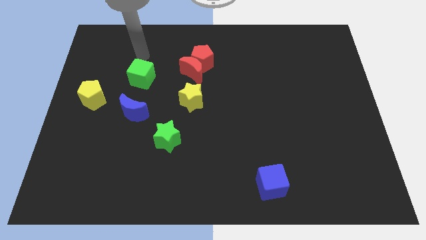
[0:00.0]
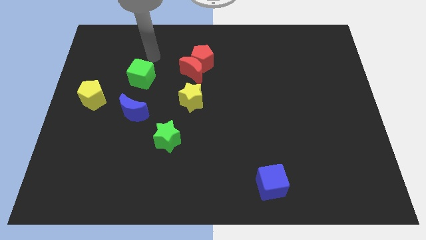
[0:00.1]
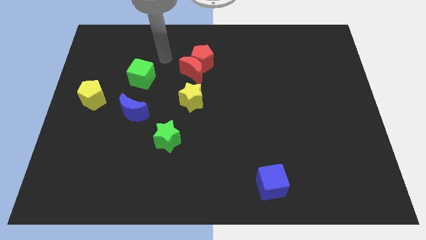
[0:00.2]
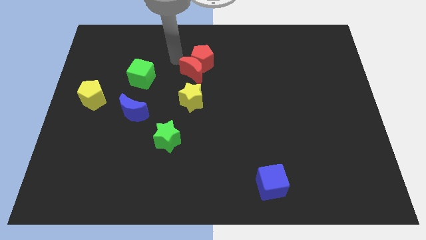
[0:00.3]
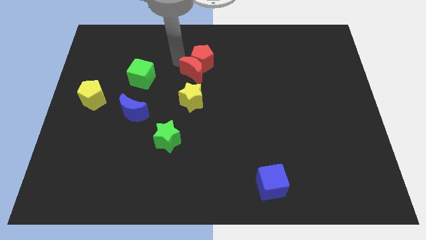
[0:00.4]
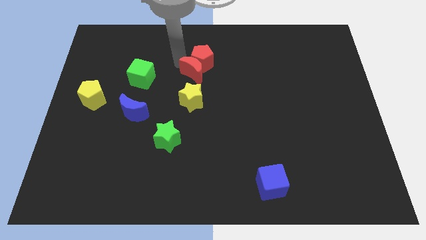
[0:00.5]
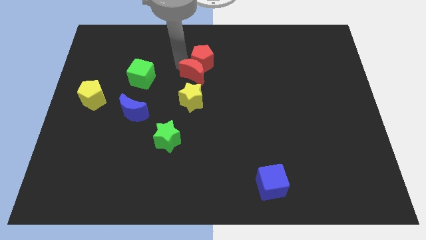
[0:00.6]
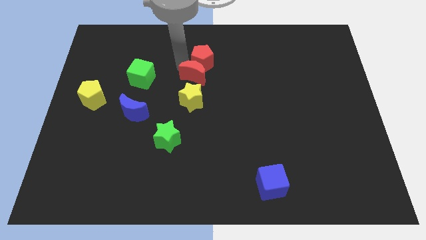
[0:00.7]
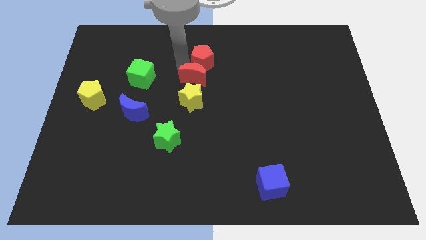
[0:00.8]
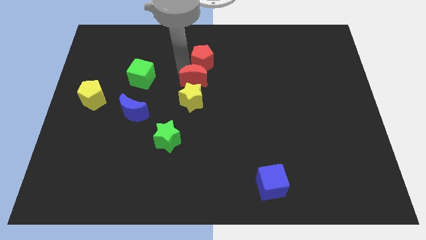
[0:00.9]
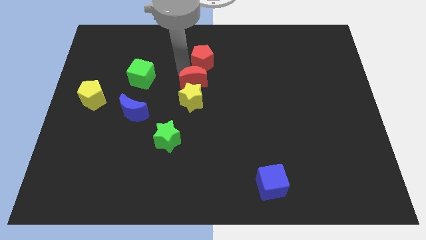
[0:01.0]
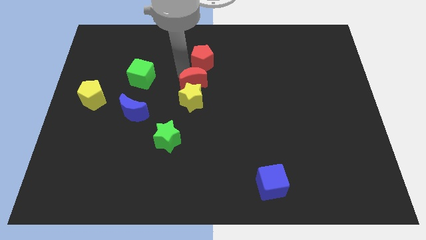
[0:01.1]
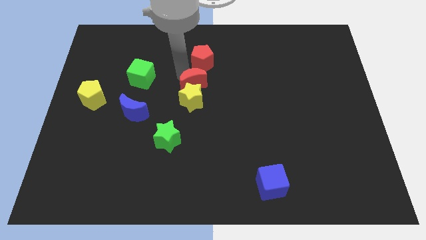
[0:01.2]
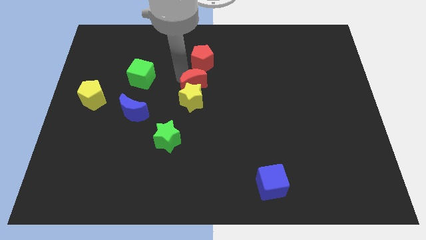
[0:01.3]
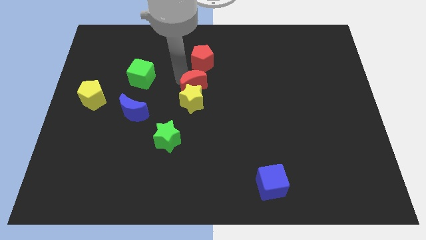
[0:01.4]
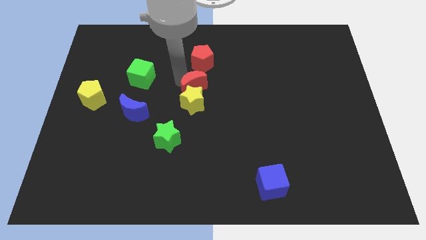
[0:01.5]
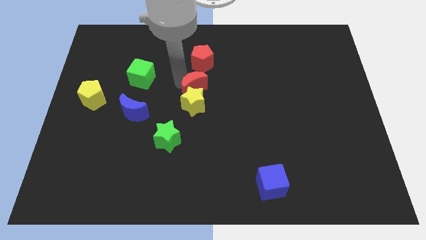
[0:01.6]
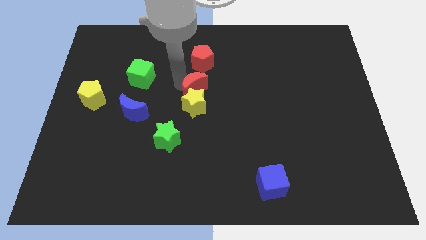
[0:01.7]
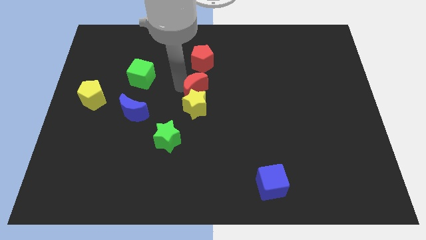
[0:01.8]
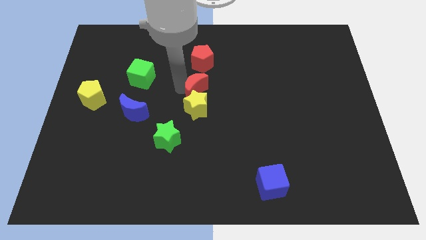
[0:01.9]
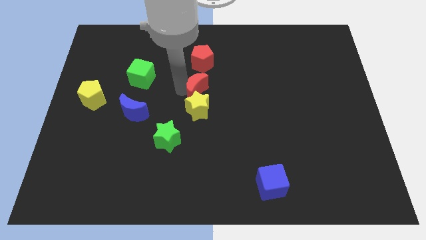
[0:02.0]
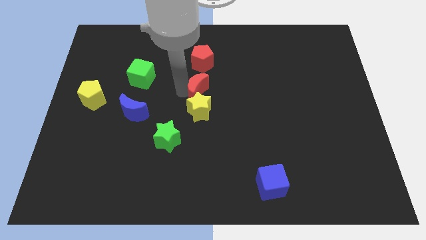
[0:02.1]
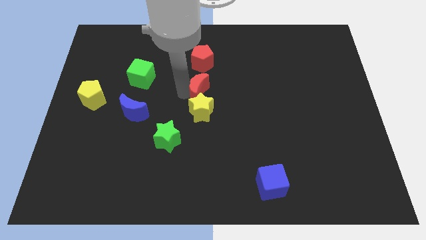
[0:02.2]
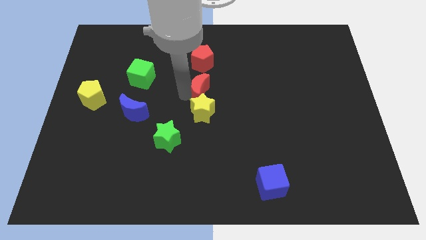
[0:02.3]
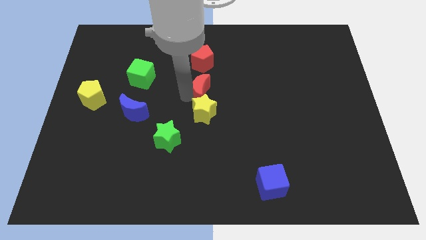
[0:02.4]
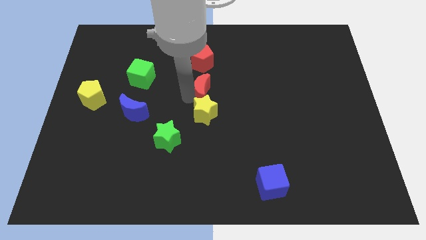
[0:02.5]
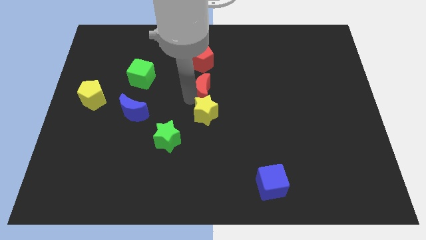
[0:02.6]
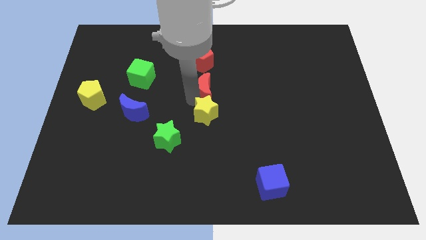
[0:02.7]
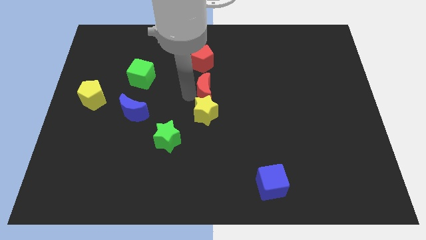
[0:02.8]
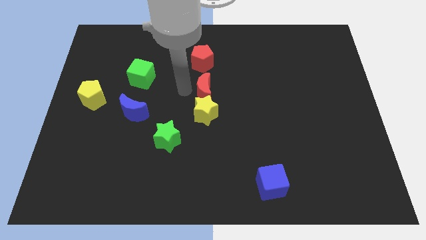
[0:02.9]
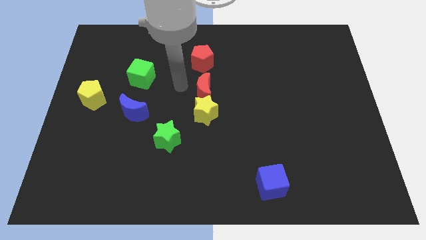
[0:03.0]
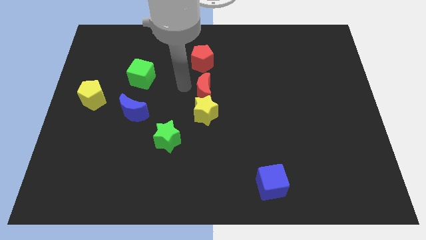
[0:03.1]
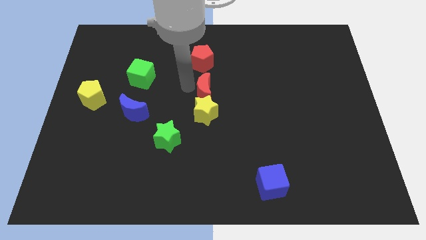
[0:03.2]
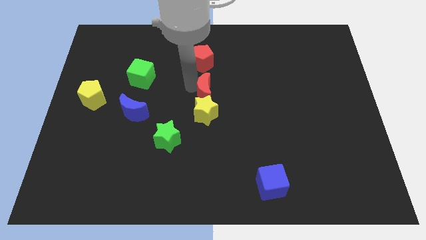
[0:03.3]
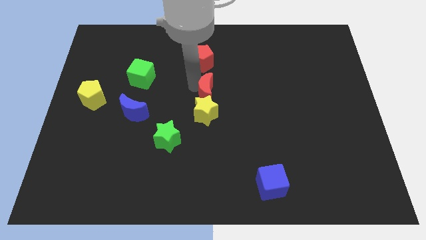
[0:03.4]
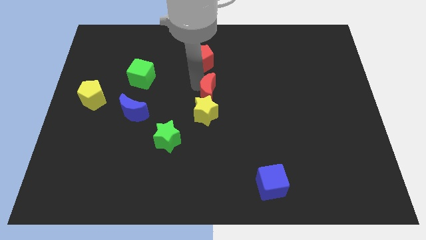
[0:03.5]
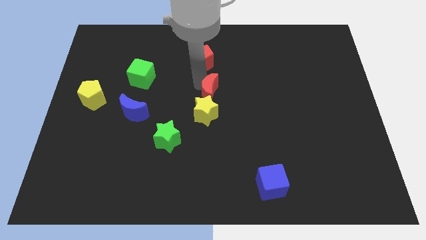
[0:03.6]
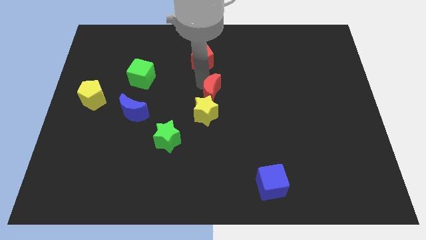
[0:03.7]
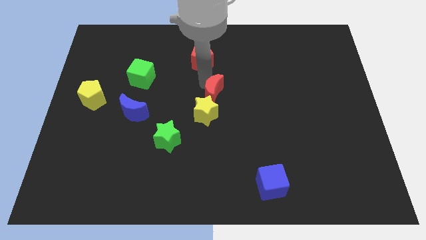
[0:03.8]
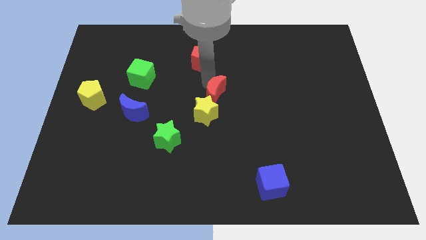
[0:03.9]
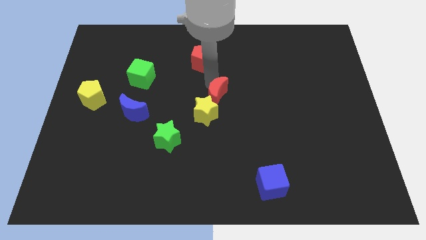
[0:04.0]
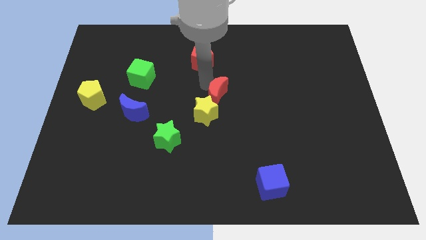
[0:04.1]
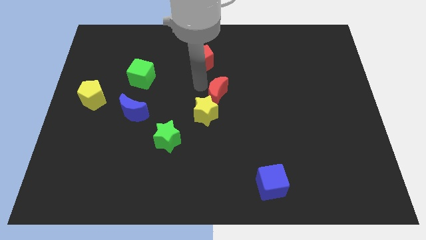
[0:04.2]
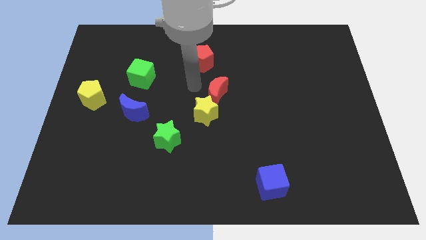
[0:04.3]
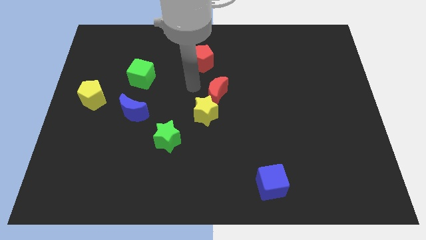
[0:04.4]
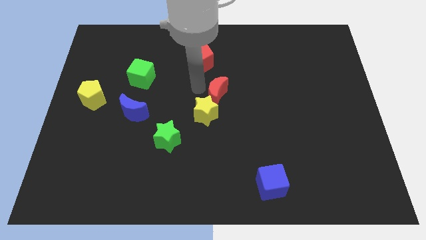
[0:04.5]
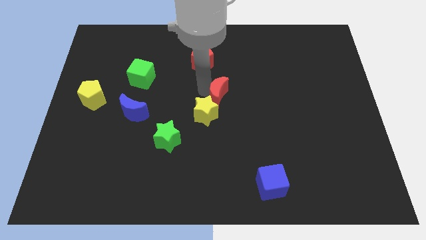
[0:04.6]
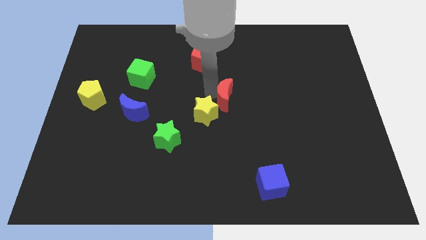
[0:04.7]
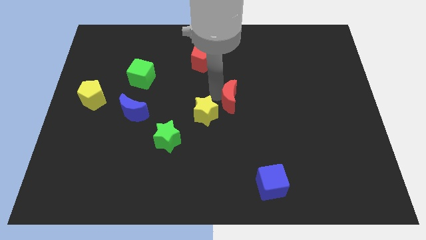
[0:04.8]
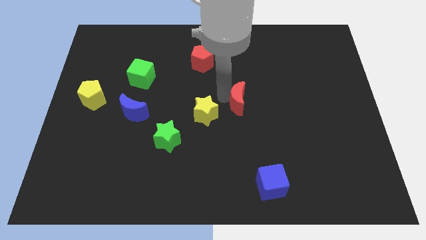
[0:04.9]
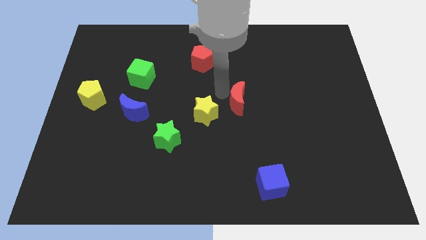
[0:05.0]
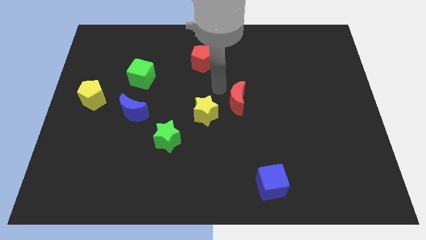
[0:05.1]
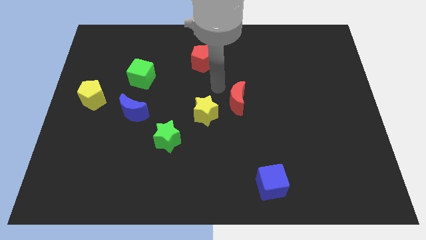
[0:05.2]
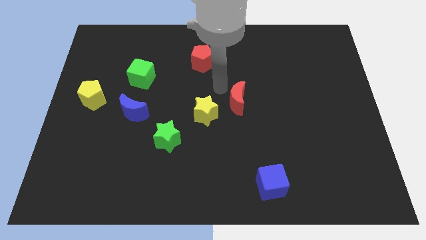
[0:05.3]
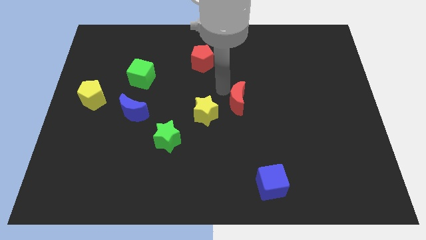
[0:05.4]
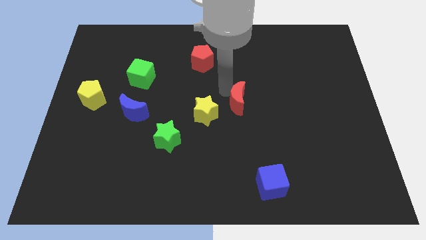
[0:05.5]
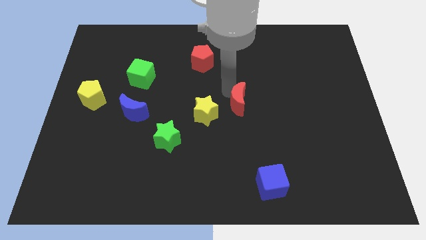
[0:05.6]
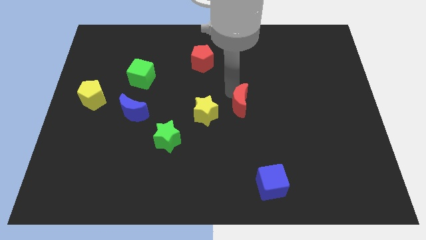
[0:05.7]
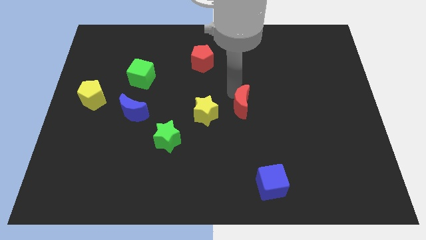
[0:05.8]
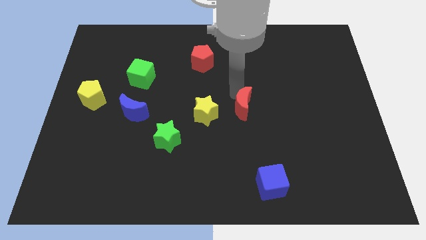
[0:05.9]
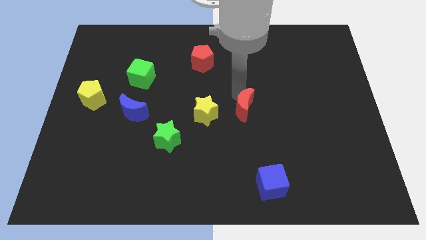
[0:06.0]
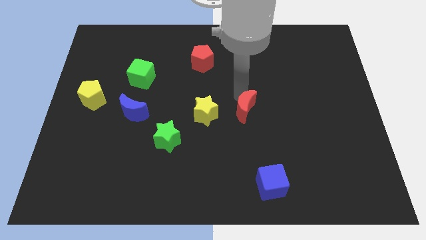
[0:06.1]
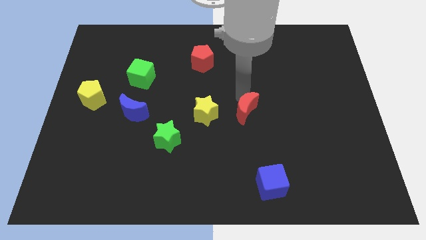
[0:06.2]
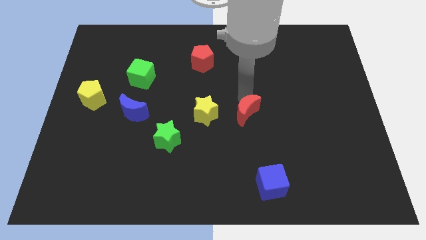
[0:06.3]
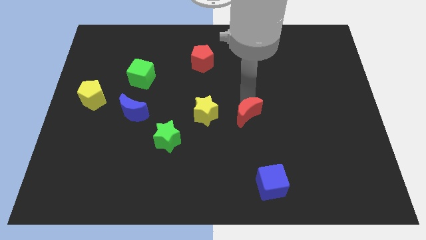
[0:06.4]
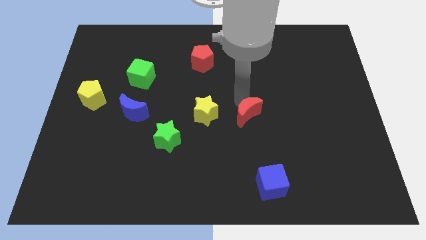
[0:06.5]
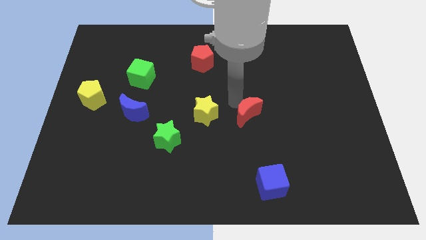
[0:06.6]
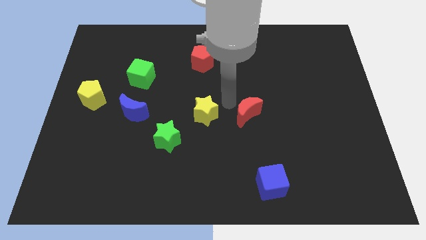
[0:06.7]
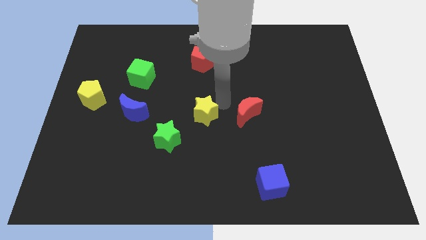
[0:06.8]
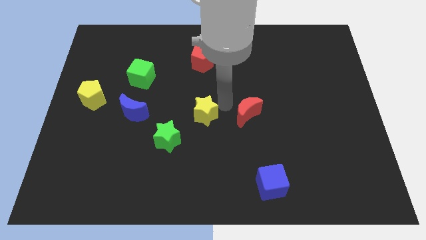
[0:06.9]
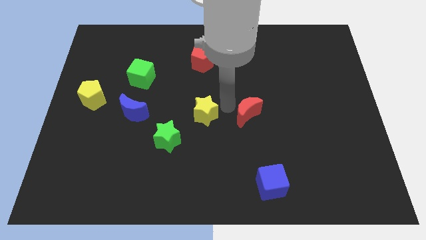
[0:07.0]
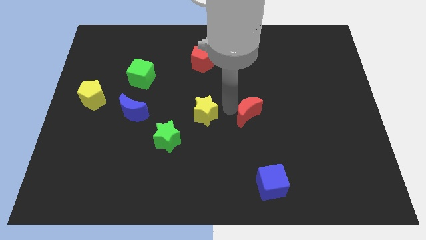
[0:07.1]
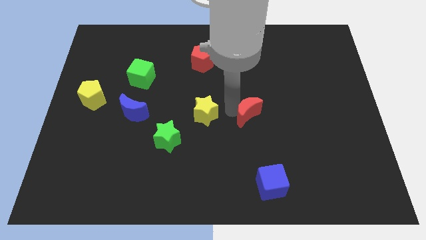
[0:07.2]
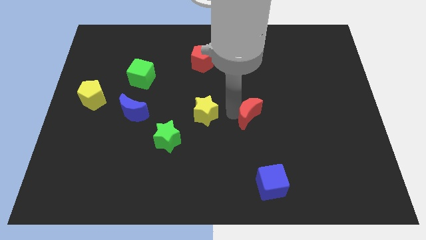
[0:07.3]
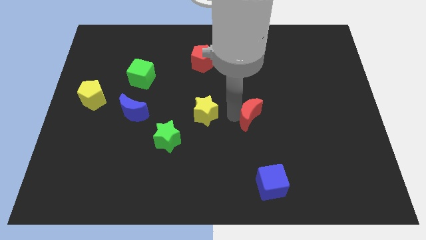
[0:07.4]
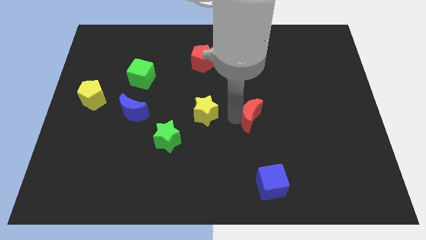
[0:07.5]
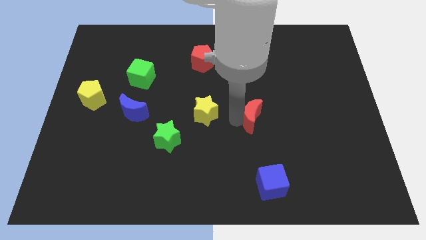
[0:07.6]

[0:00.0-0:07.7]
move the red moon downwards and then right
